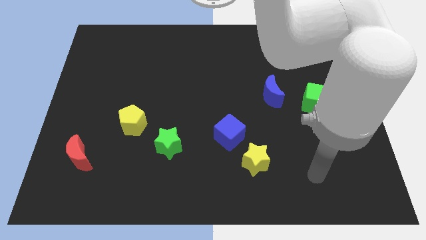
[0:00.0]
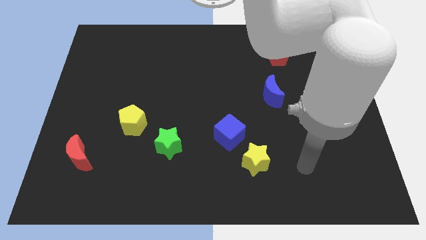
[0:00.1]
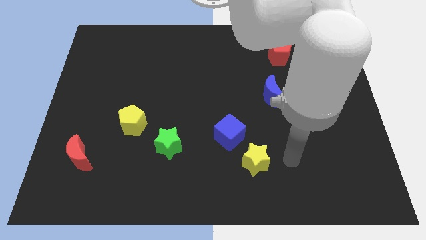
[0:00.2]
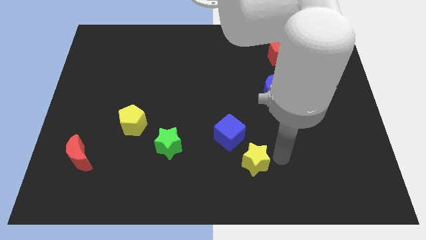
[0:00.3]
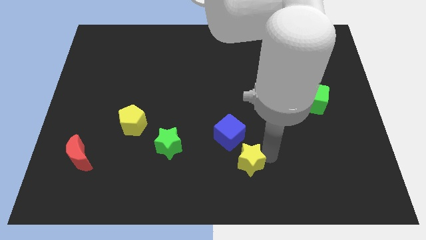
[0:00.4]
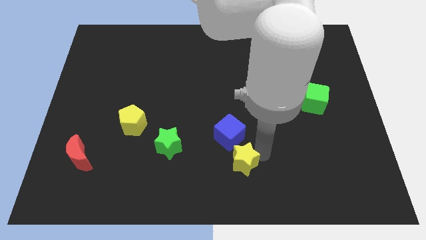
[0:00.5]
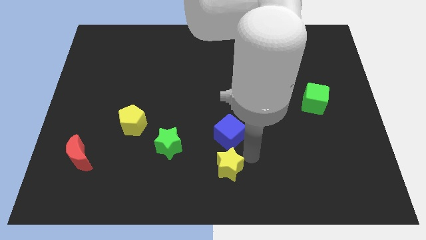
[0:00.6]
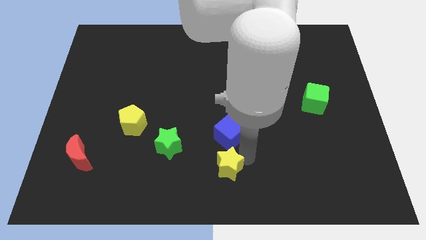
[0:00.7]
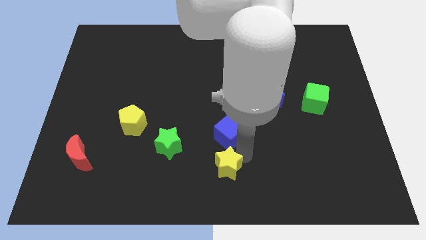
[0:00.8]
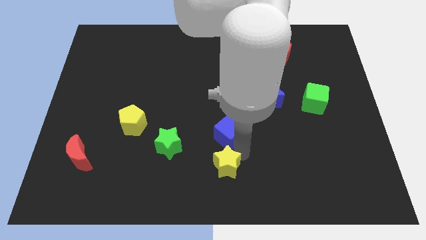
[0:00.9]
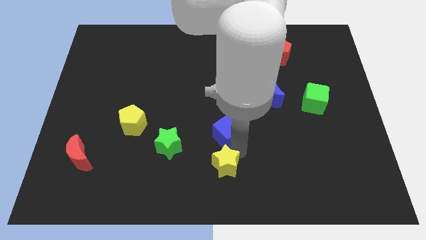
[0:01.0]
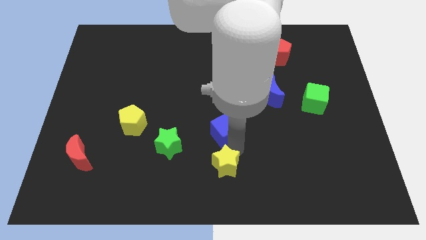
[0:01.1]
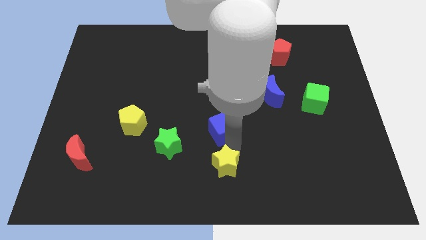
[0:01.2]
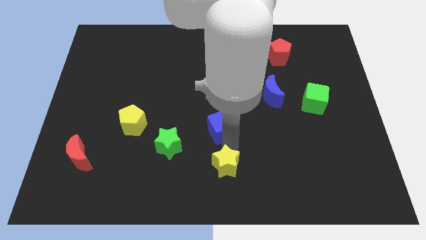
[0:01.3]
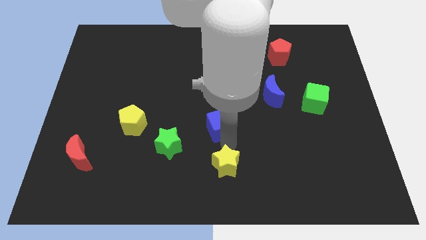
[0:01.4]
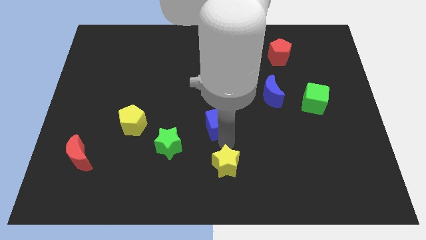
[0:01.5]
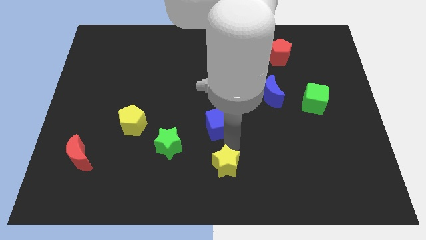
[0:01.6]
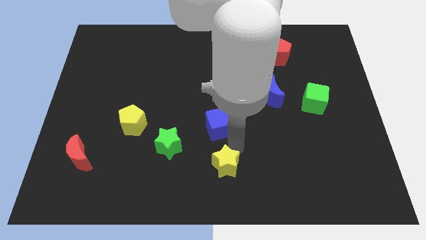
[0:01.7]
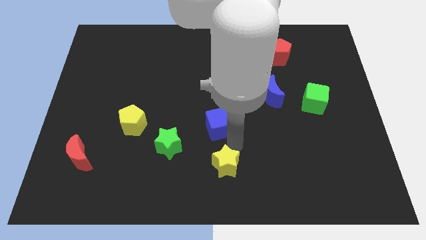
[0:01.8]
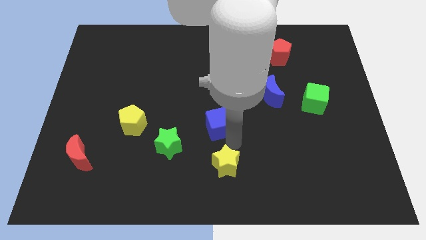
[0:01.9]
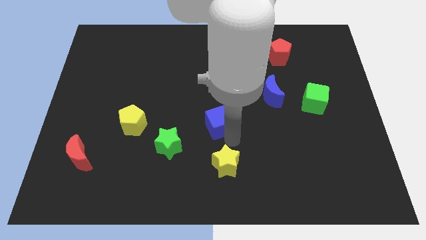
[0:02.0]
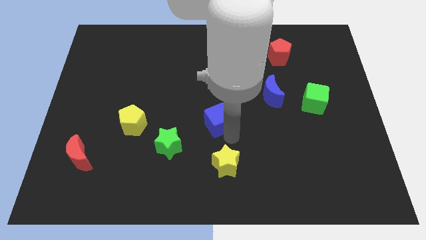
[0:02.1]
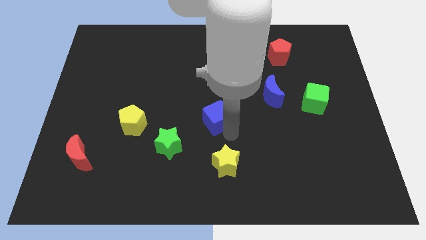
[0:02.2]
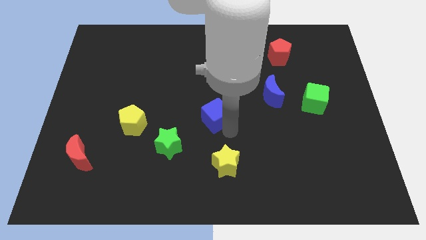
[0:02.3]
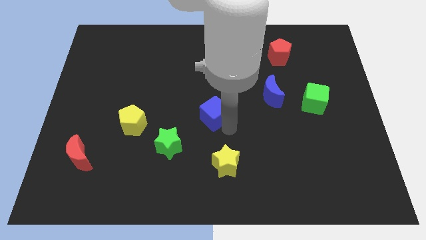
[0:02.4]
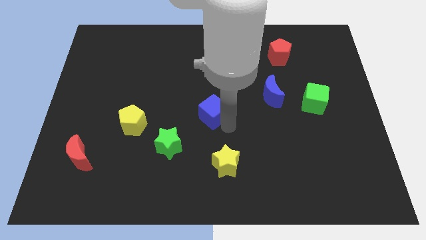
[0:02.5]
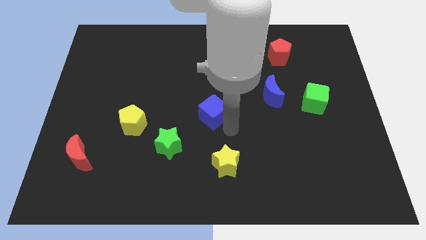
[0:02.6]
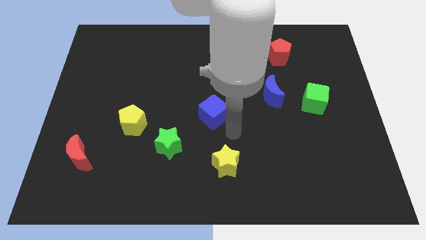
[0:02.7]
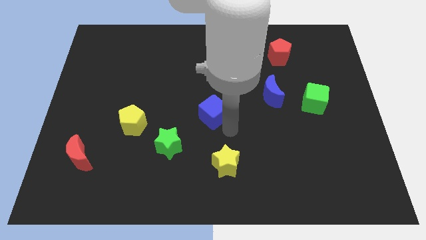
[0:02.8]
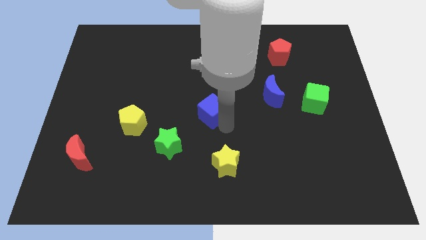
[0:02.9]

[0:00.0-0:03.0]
slightly push the blue cube upwards and left diagonally

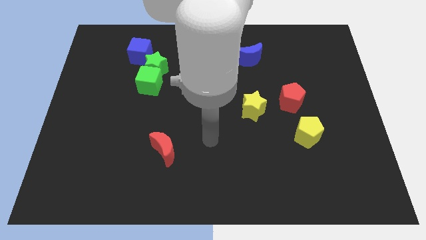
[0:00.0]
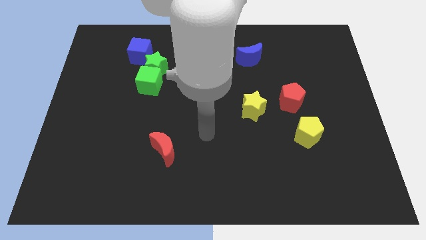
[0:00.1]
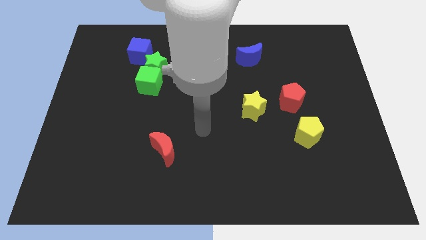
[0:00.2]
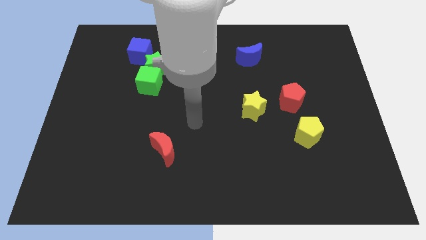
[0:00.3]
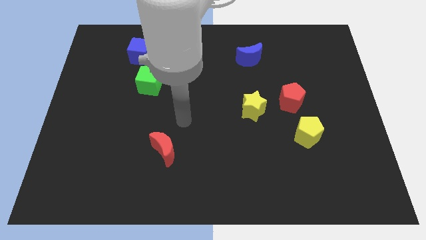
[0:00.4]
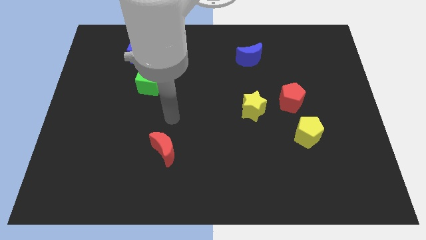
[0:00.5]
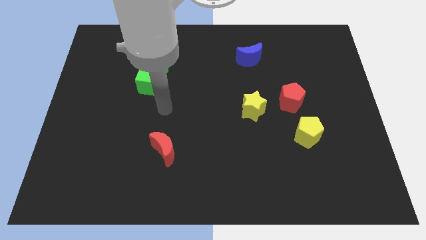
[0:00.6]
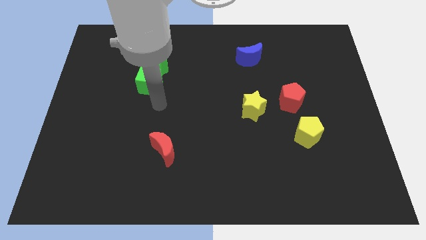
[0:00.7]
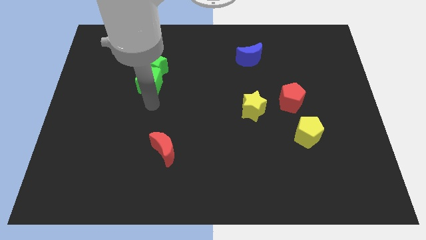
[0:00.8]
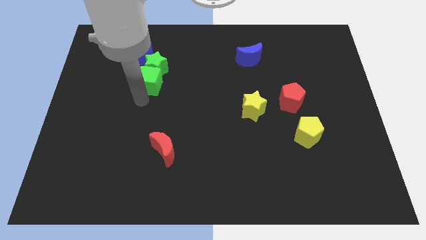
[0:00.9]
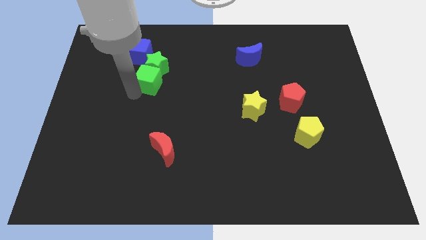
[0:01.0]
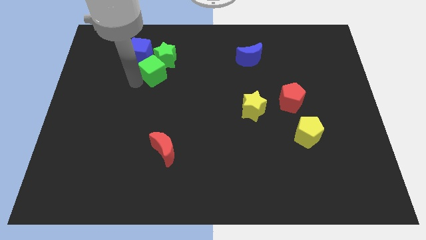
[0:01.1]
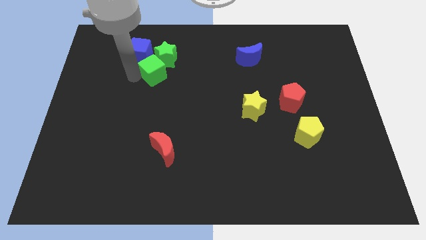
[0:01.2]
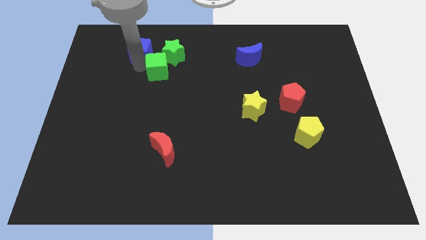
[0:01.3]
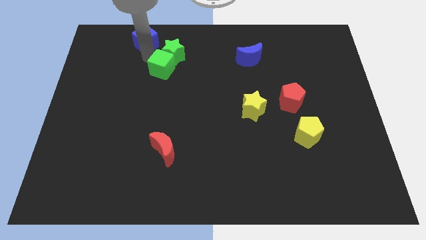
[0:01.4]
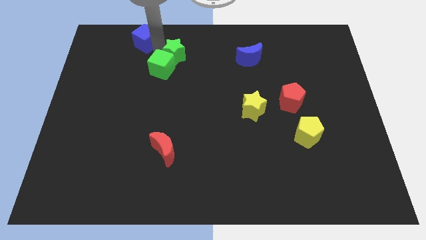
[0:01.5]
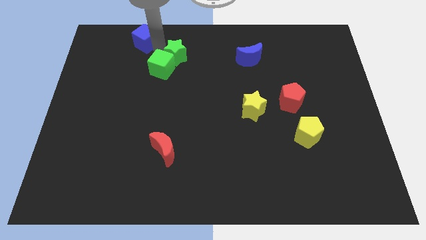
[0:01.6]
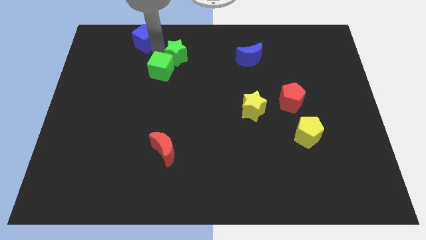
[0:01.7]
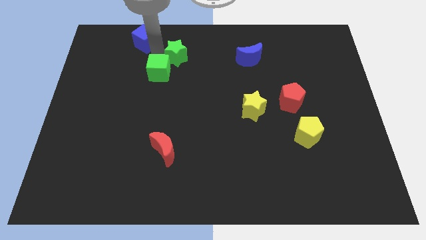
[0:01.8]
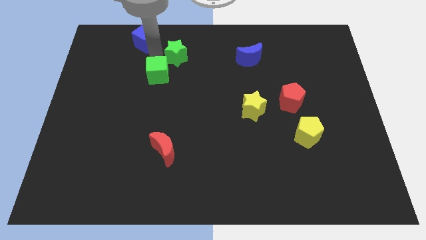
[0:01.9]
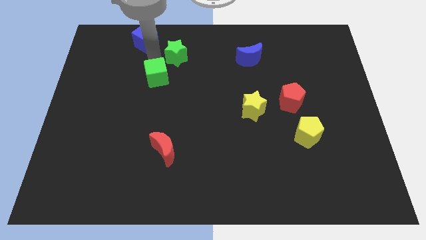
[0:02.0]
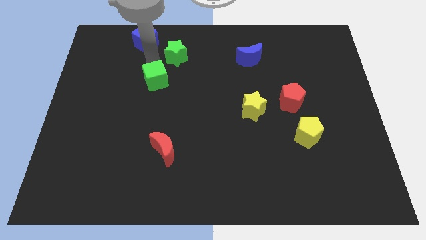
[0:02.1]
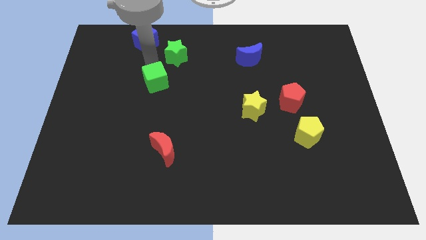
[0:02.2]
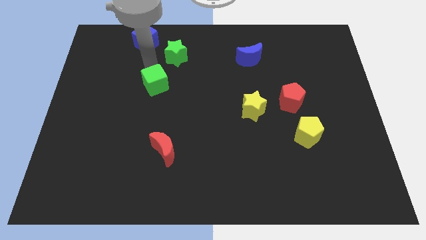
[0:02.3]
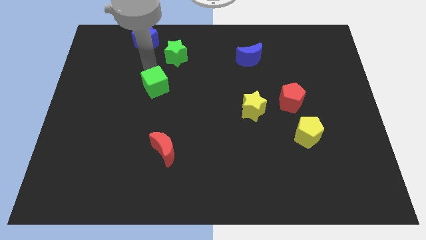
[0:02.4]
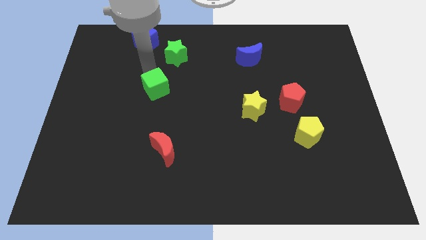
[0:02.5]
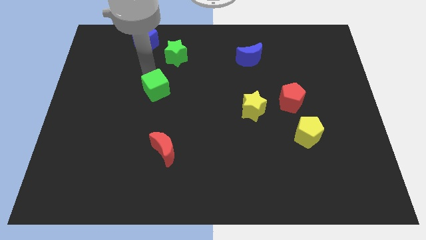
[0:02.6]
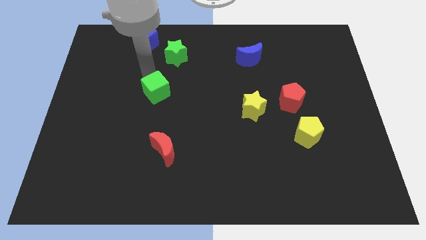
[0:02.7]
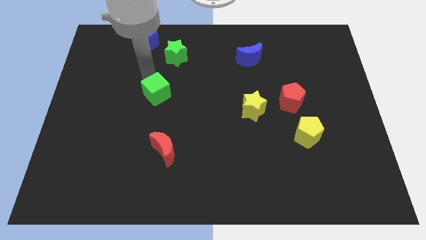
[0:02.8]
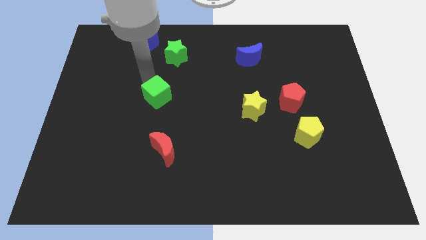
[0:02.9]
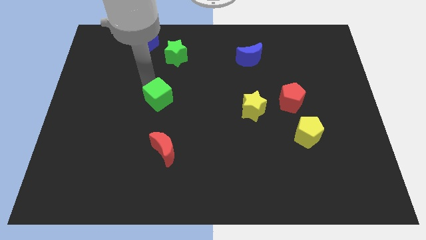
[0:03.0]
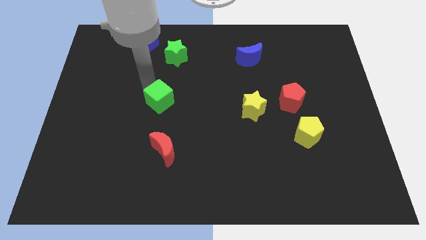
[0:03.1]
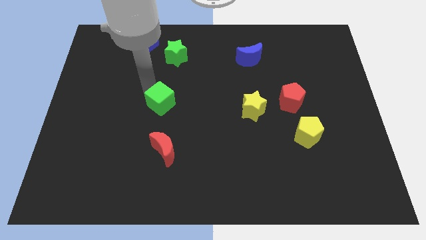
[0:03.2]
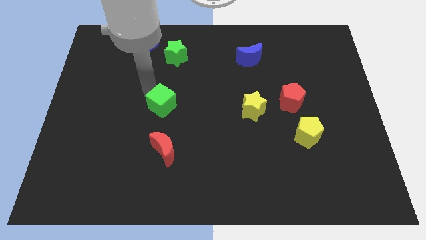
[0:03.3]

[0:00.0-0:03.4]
slide the green cube downwards and then right a little

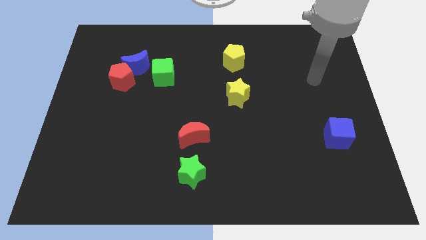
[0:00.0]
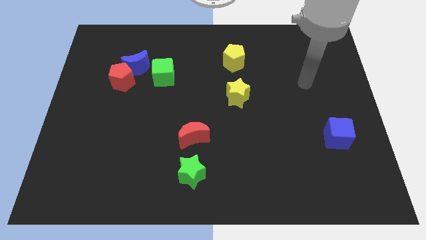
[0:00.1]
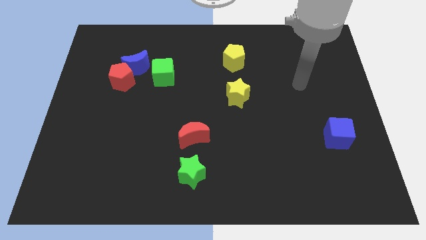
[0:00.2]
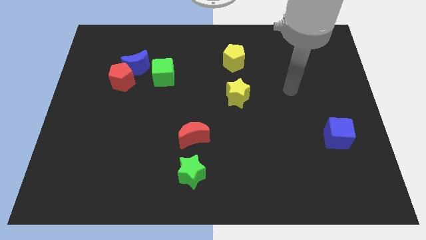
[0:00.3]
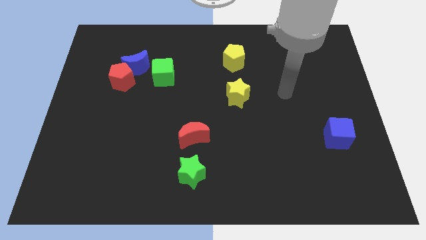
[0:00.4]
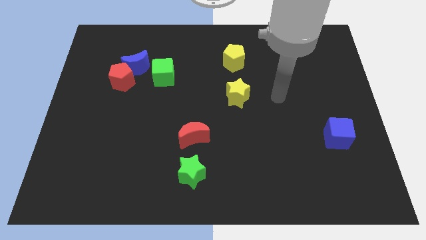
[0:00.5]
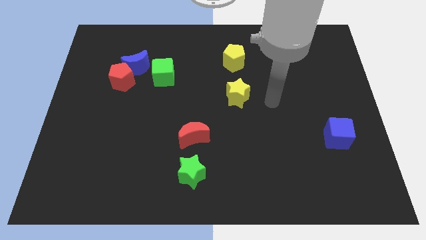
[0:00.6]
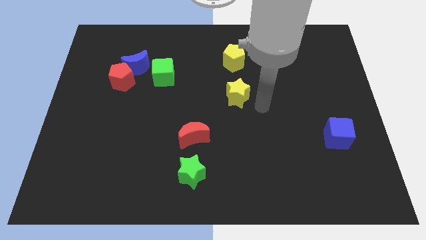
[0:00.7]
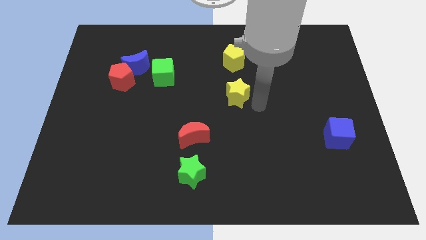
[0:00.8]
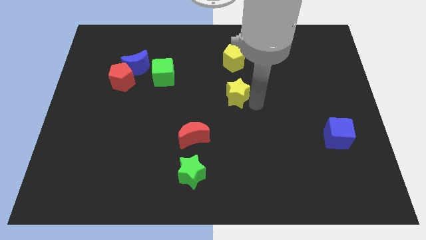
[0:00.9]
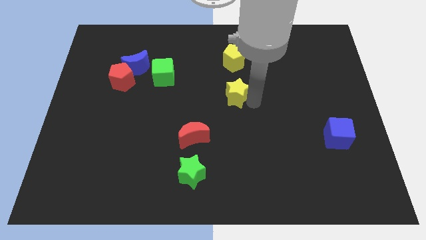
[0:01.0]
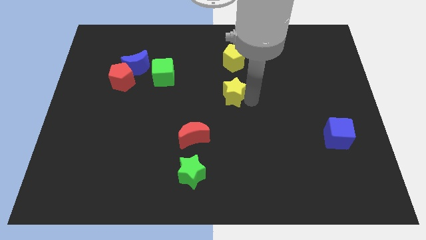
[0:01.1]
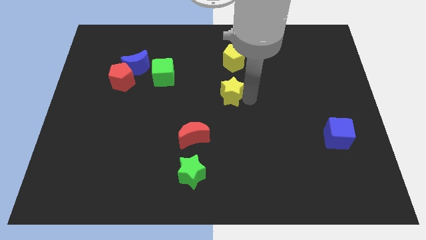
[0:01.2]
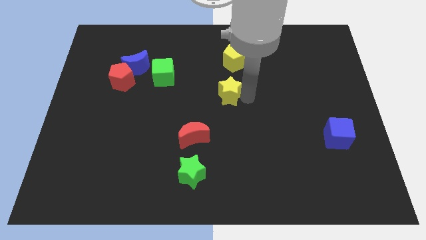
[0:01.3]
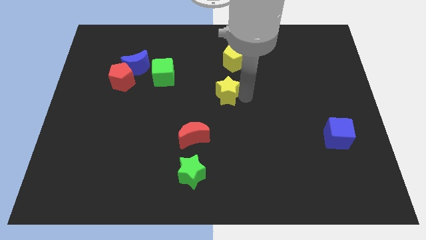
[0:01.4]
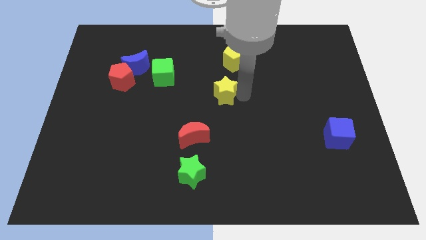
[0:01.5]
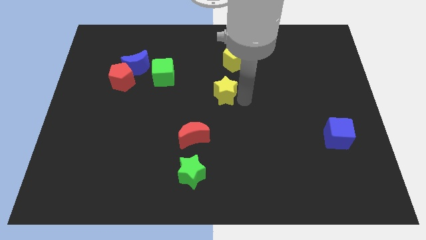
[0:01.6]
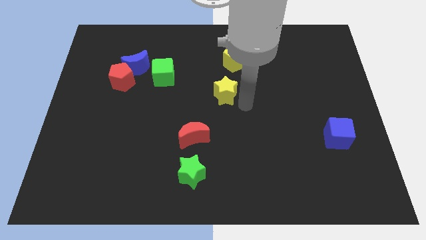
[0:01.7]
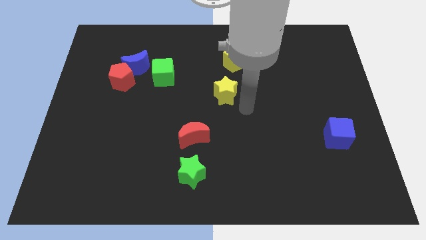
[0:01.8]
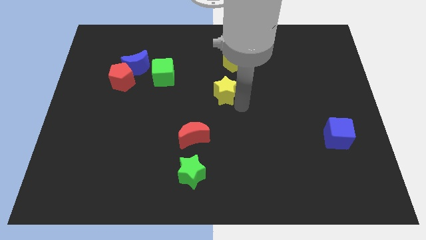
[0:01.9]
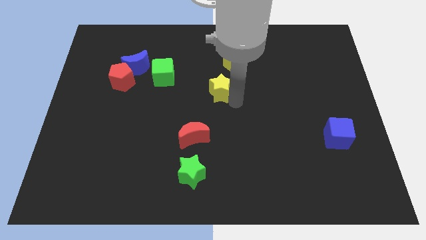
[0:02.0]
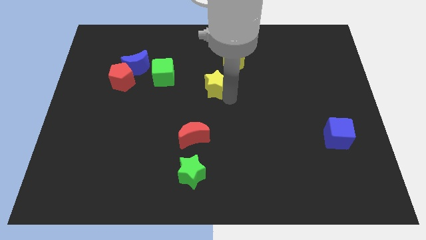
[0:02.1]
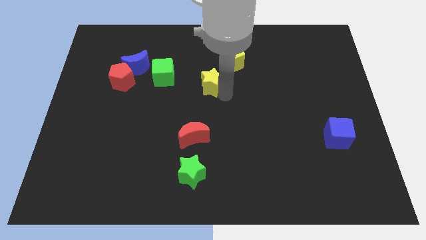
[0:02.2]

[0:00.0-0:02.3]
push the yellow star upwards and then left somewhat
